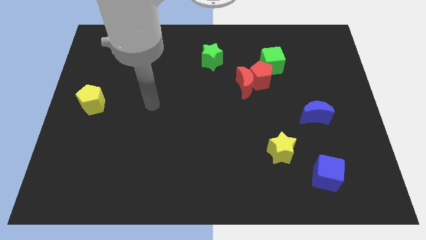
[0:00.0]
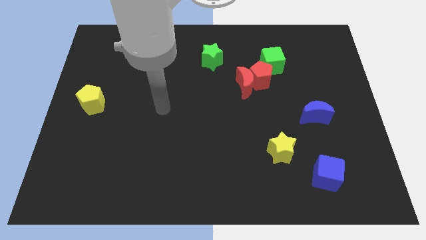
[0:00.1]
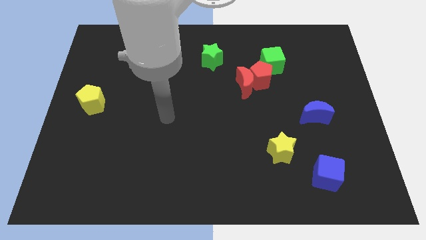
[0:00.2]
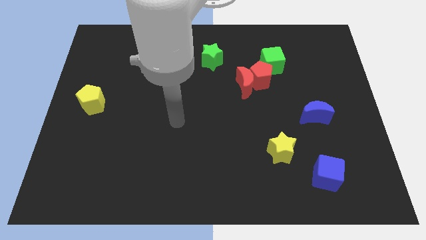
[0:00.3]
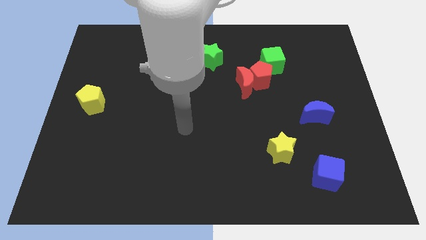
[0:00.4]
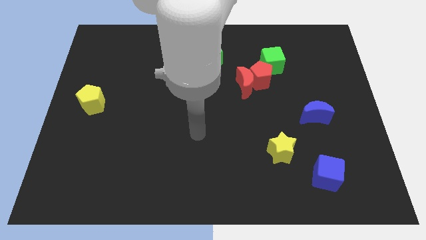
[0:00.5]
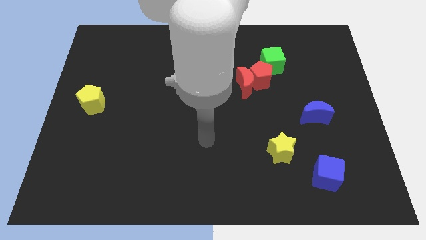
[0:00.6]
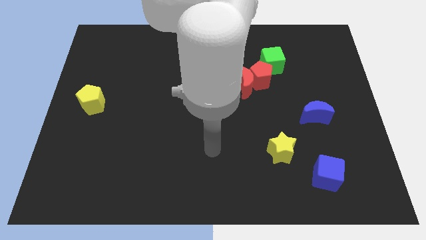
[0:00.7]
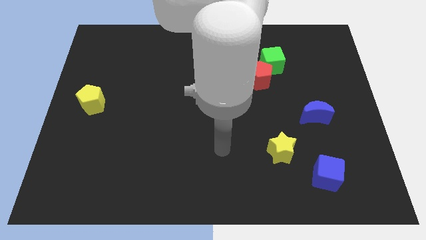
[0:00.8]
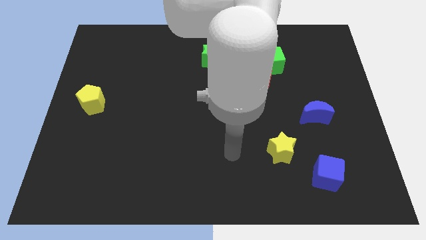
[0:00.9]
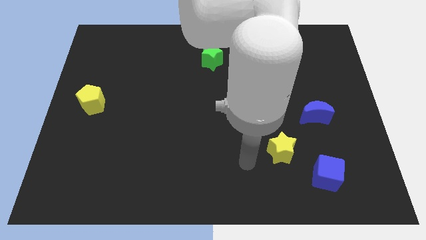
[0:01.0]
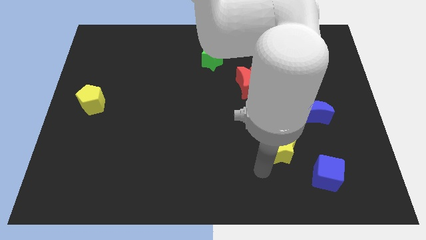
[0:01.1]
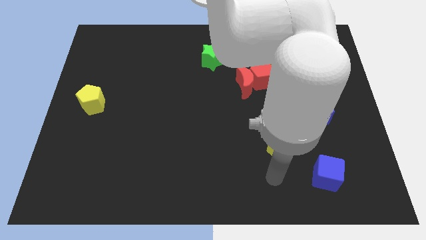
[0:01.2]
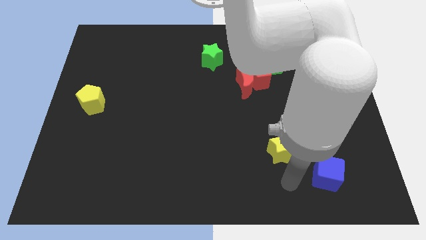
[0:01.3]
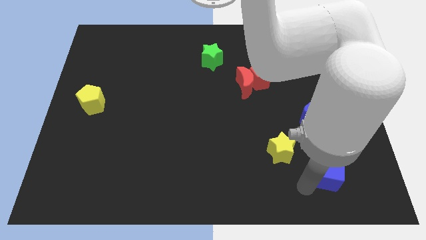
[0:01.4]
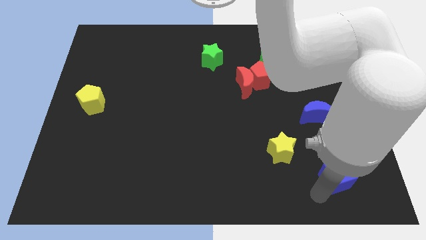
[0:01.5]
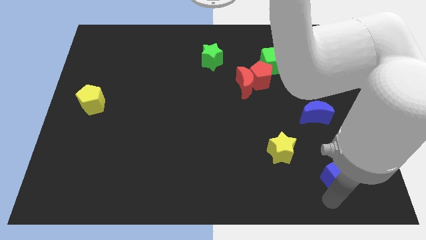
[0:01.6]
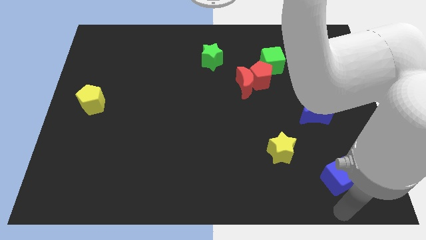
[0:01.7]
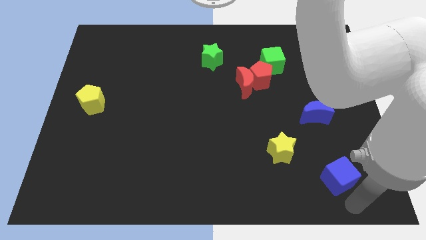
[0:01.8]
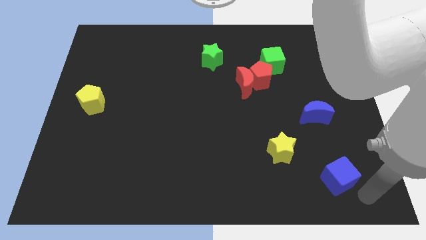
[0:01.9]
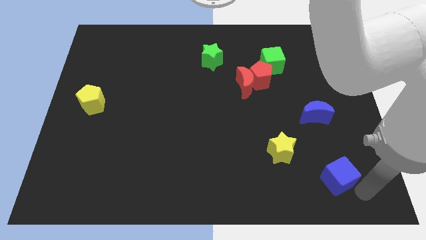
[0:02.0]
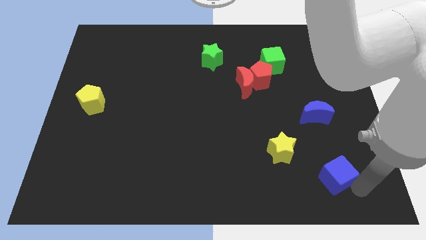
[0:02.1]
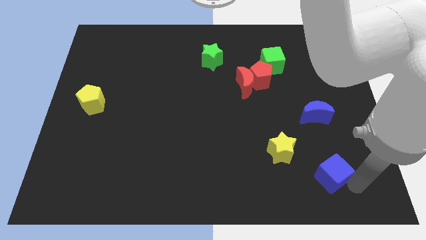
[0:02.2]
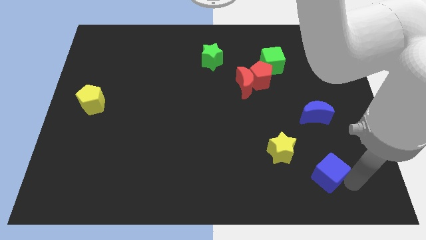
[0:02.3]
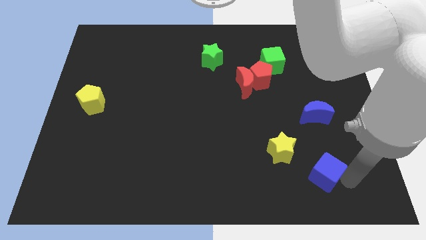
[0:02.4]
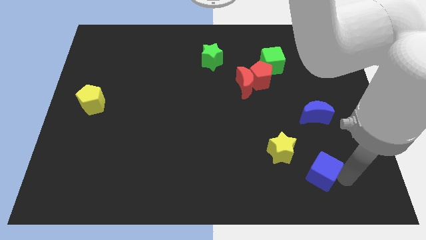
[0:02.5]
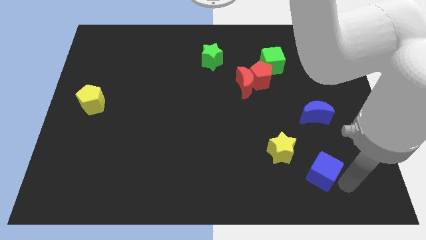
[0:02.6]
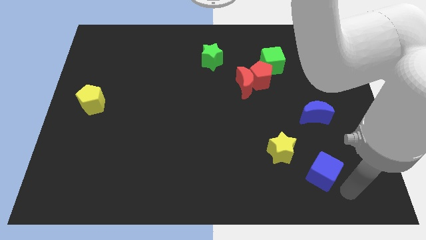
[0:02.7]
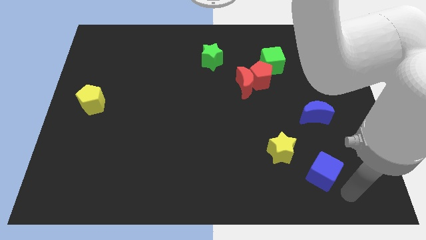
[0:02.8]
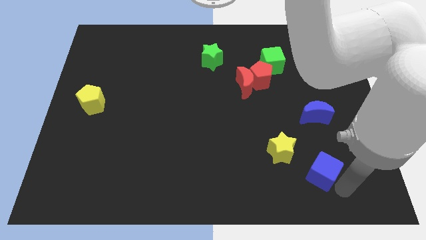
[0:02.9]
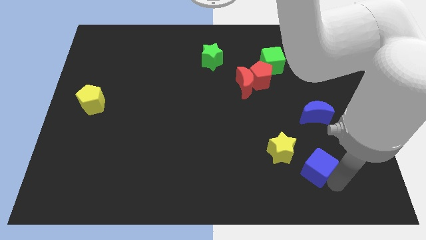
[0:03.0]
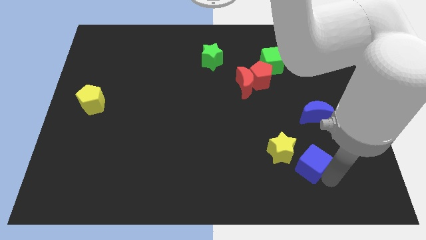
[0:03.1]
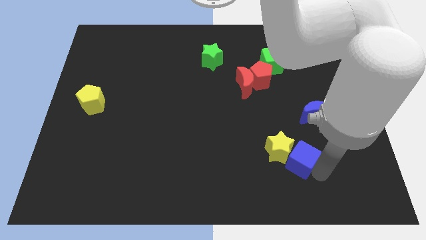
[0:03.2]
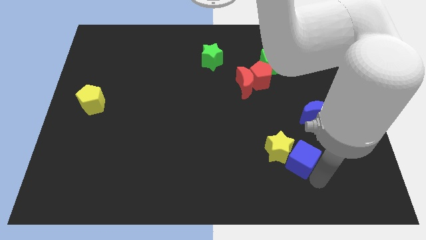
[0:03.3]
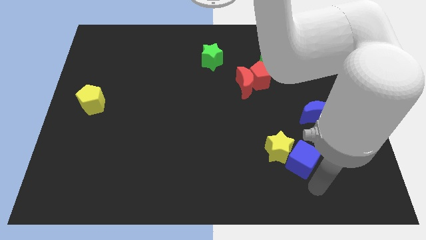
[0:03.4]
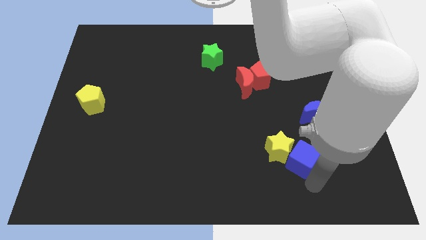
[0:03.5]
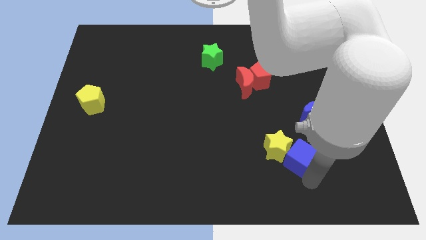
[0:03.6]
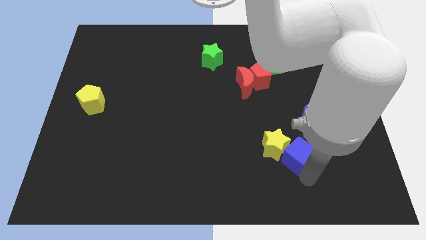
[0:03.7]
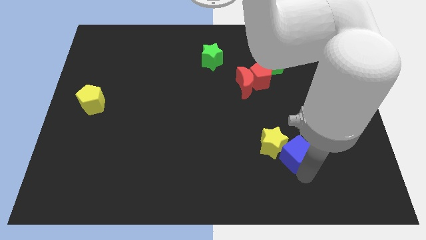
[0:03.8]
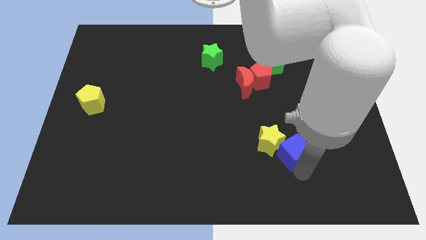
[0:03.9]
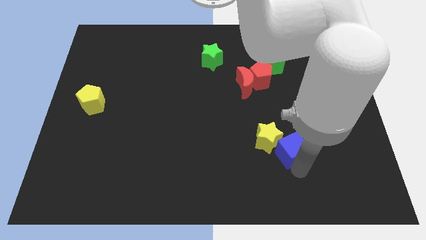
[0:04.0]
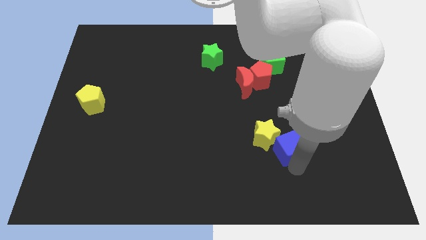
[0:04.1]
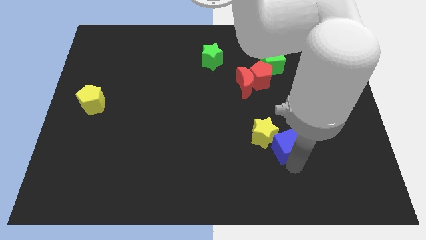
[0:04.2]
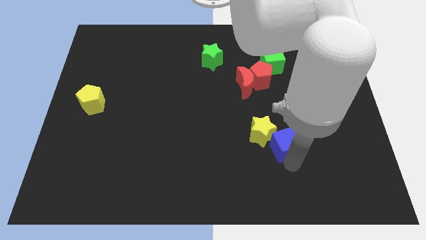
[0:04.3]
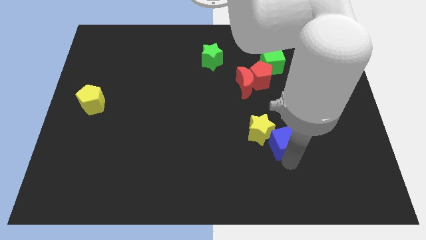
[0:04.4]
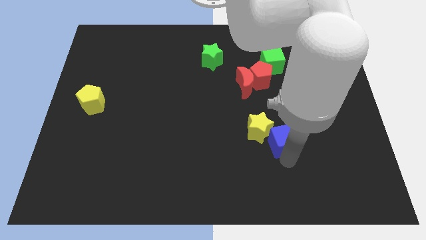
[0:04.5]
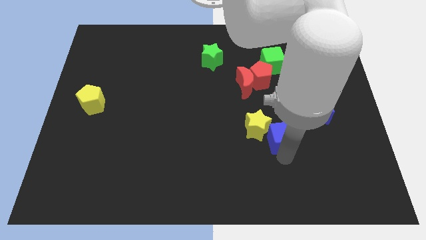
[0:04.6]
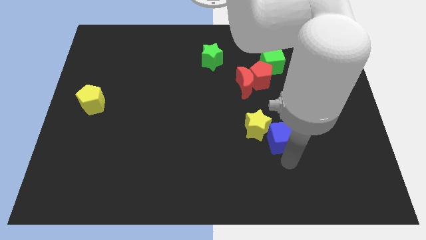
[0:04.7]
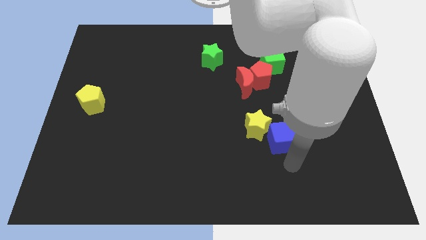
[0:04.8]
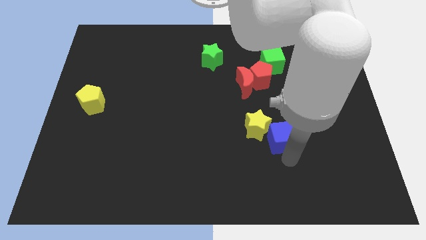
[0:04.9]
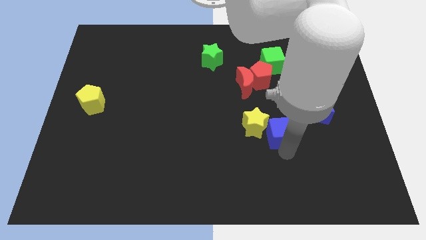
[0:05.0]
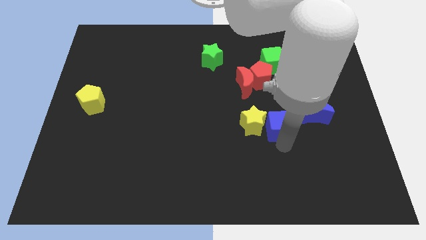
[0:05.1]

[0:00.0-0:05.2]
slide the blue cube to the left of the blue moon
